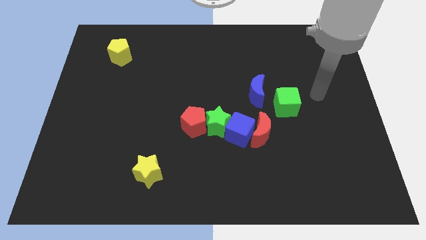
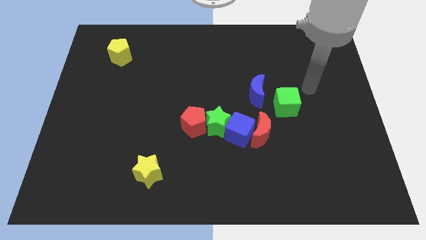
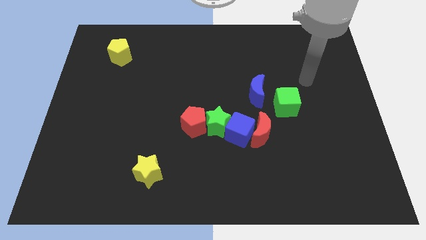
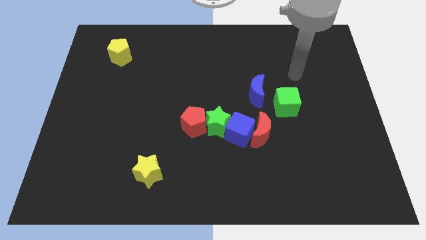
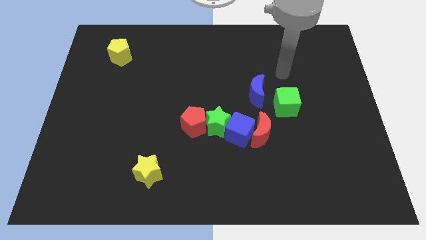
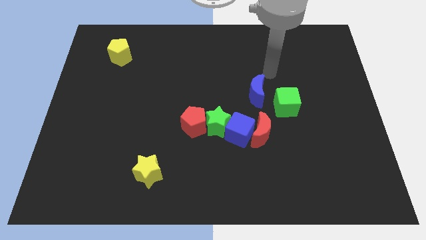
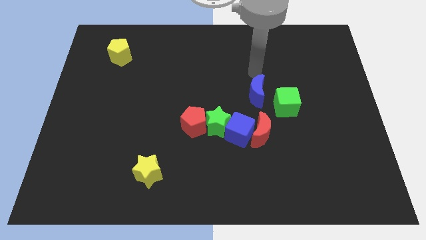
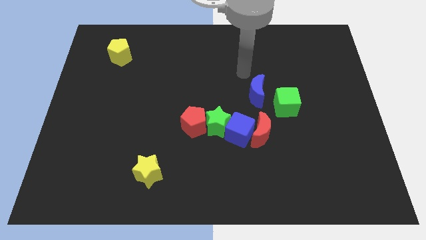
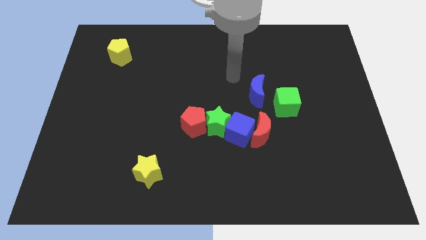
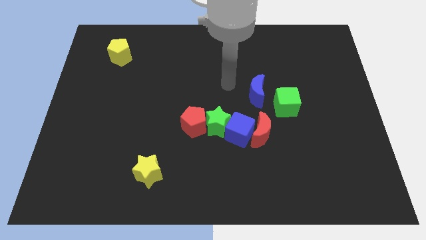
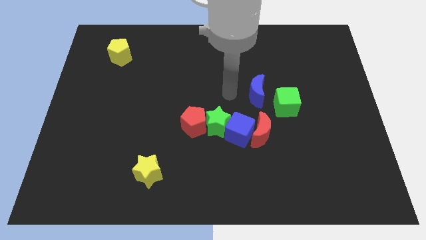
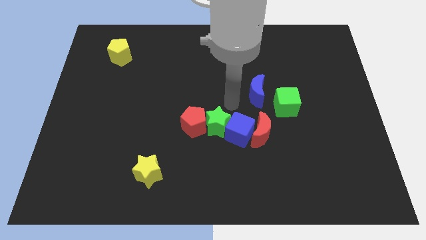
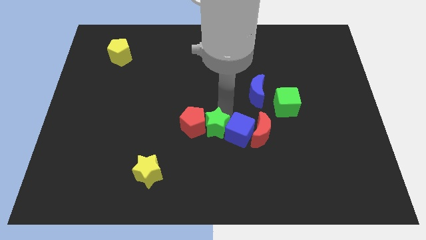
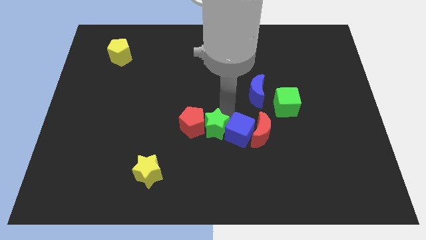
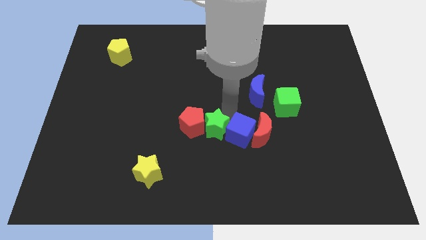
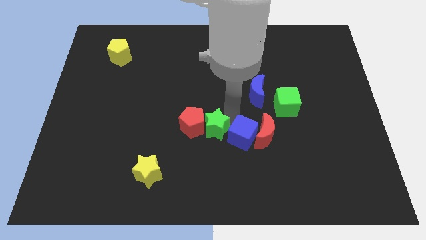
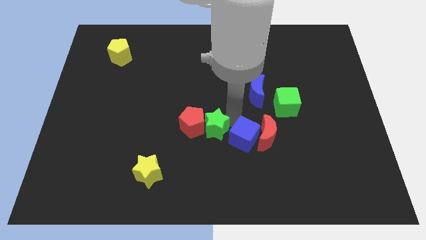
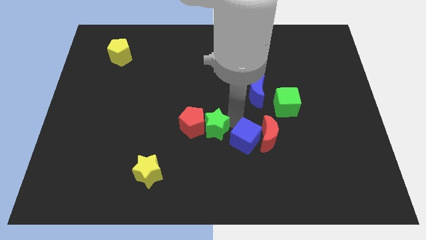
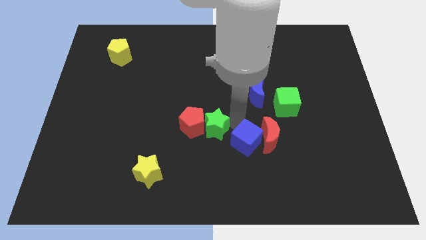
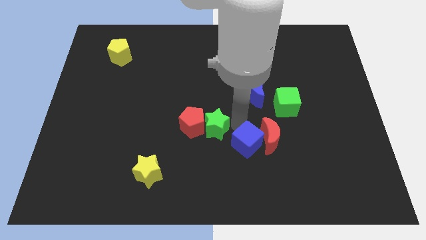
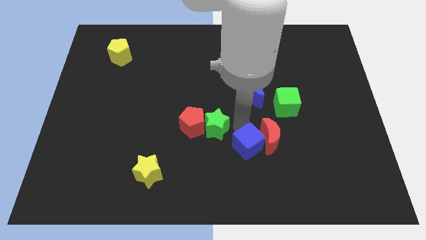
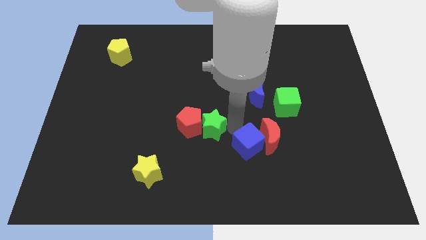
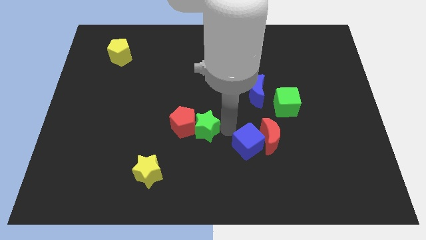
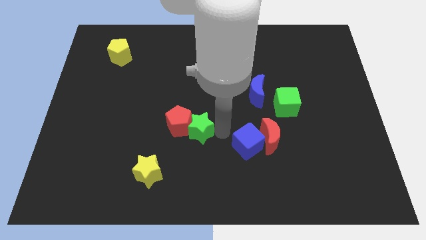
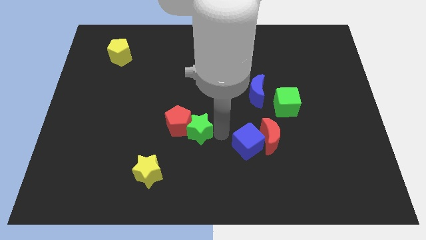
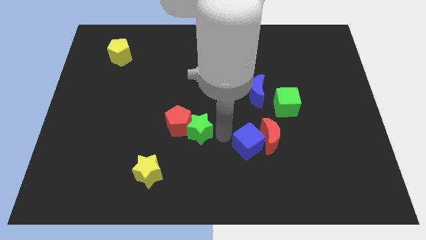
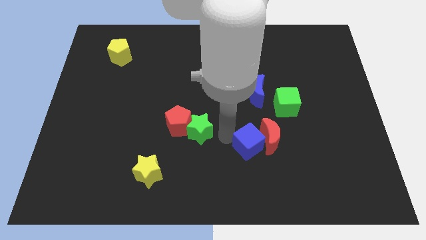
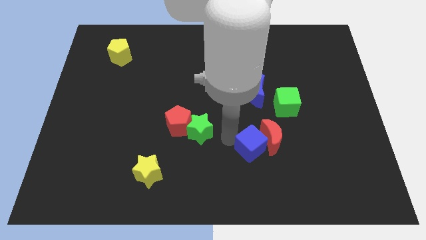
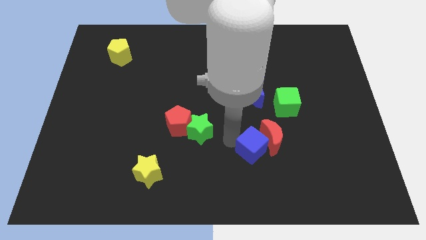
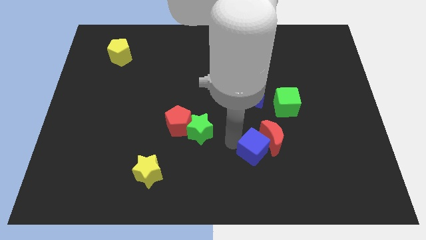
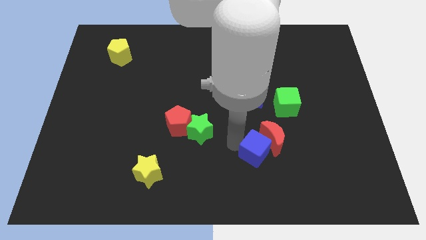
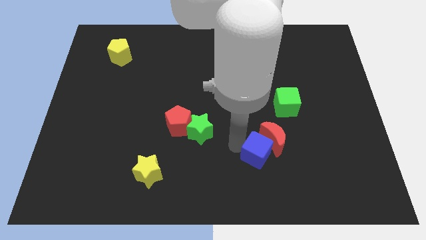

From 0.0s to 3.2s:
pull the blue cube apart from the group of blocks

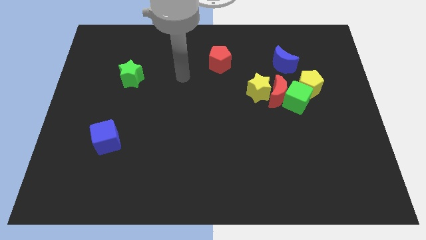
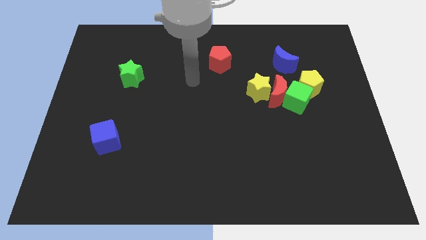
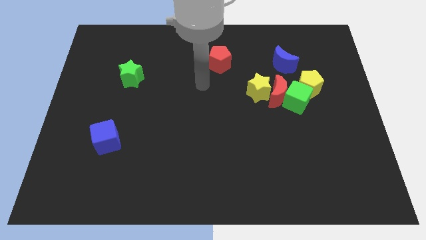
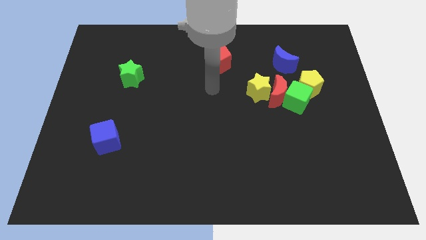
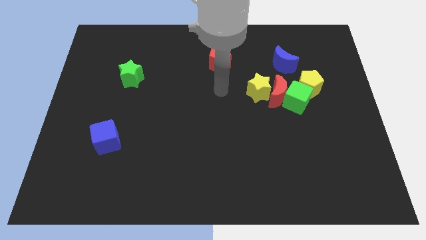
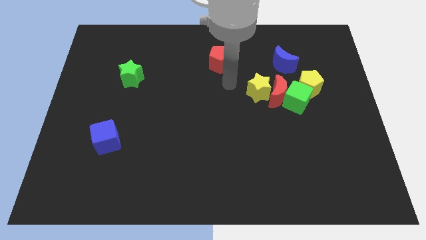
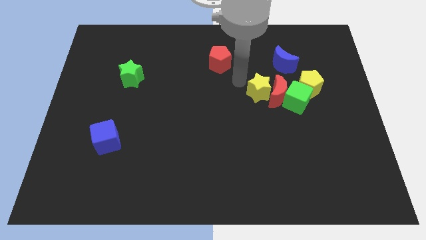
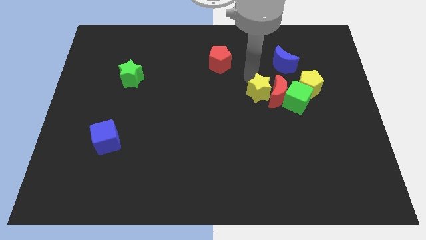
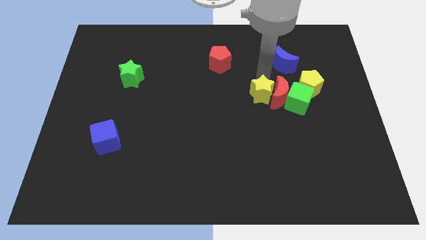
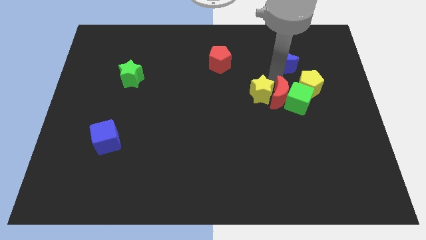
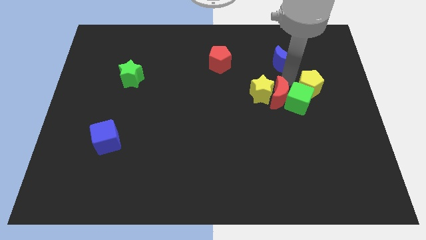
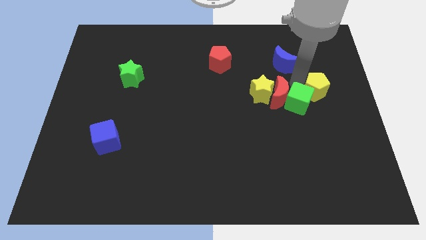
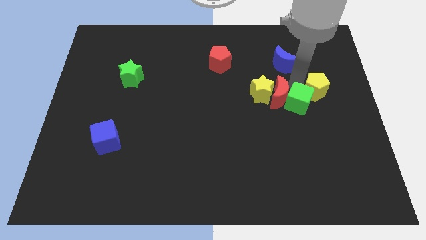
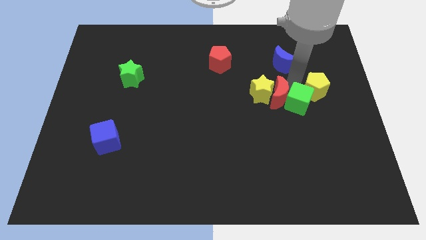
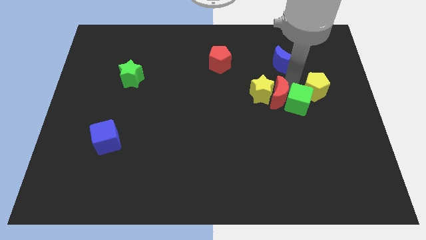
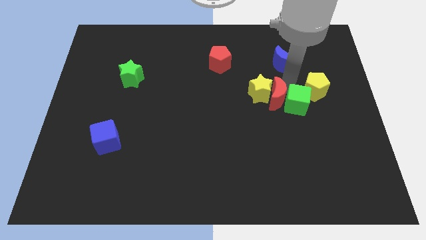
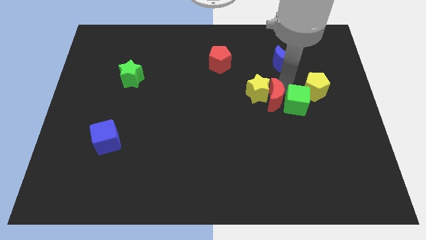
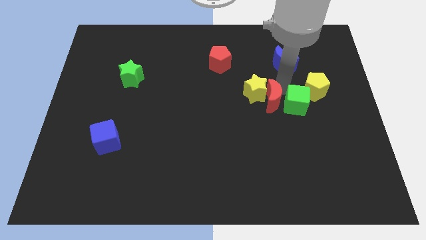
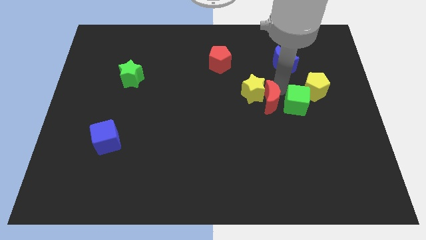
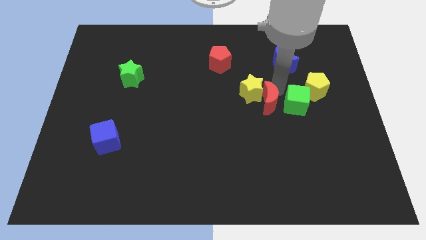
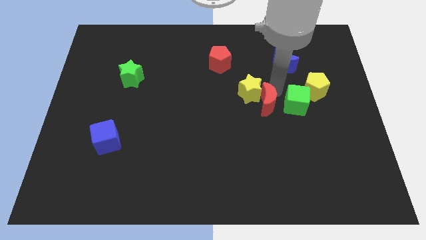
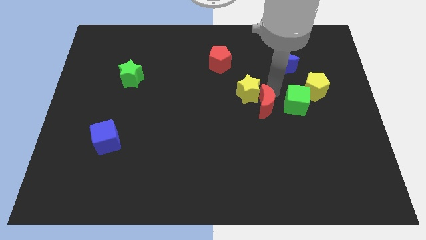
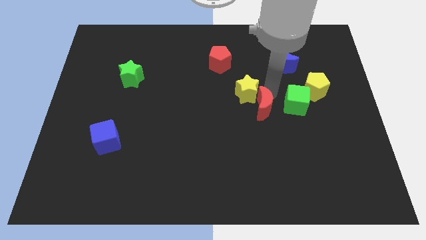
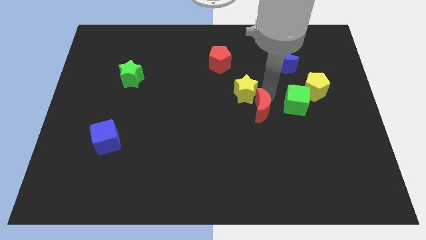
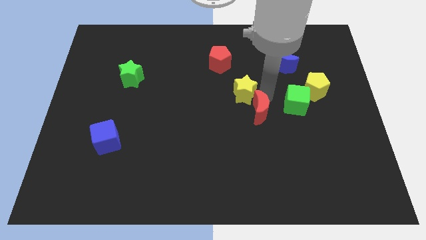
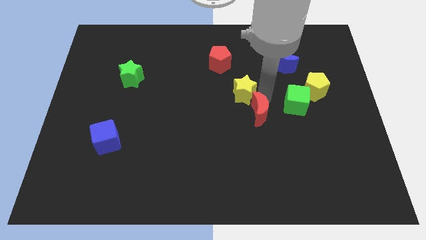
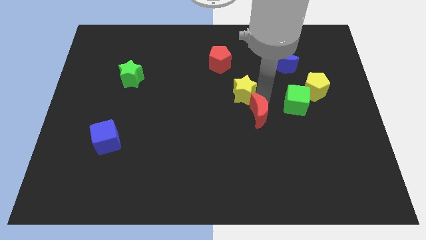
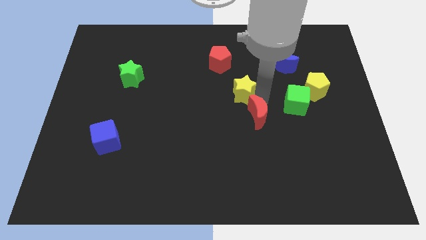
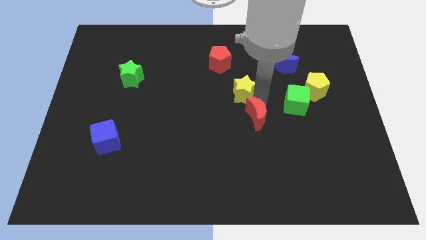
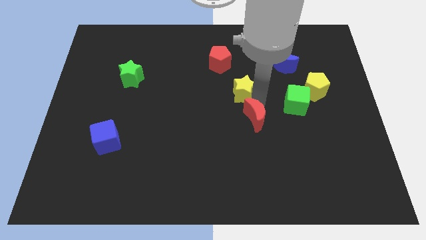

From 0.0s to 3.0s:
separate the red moon from the green cube, yellow star, and yellow pentagon

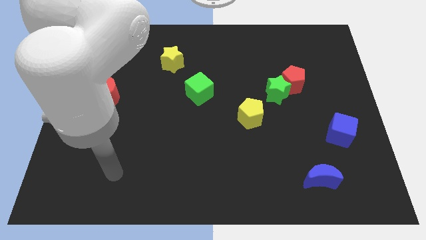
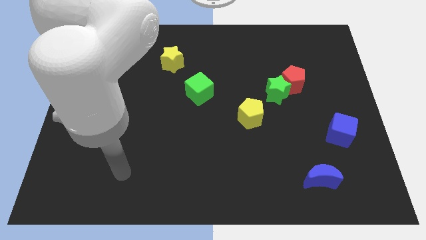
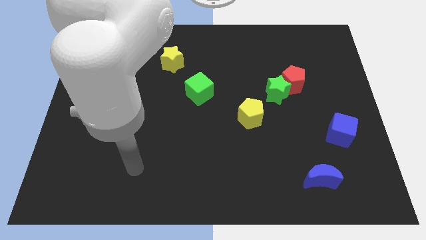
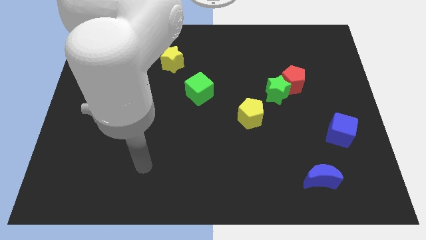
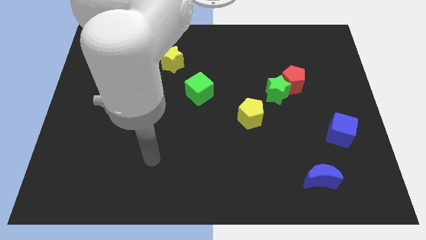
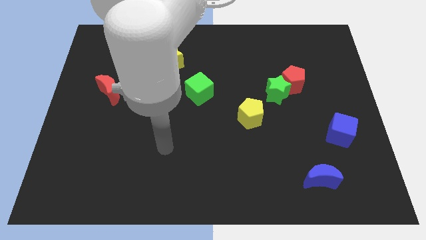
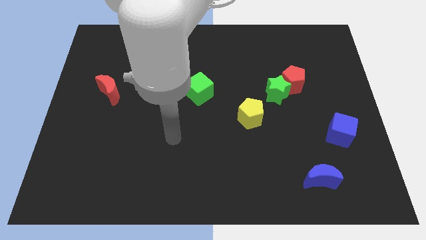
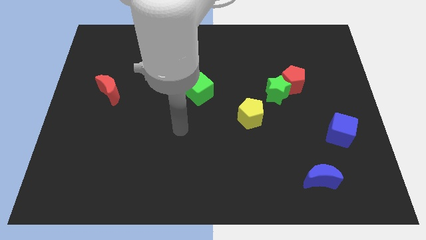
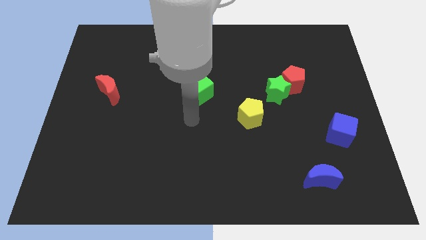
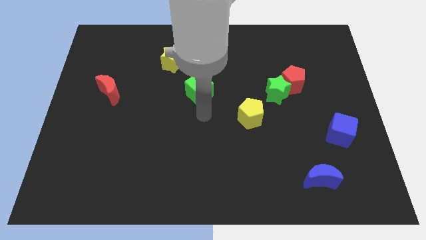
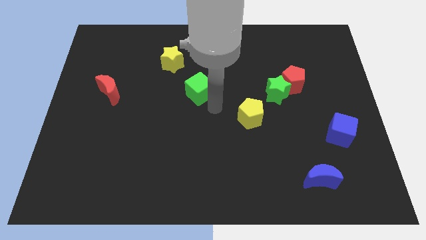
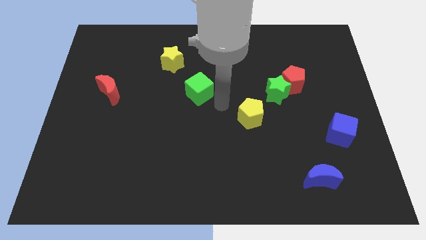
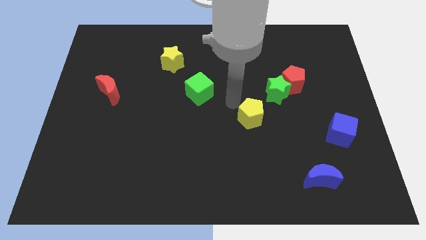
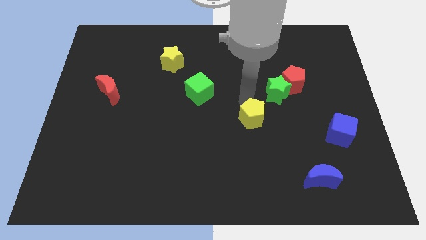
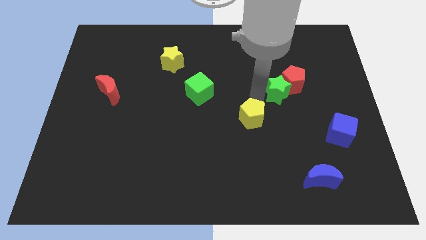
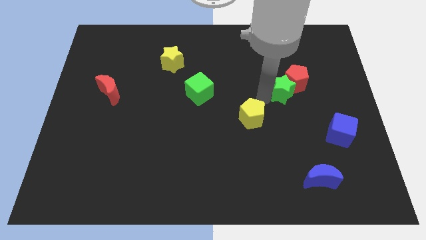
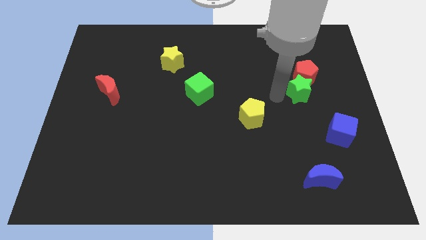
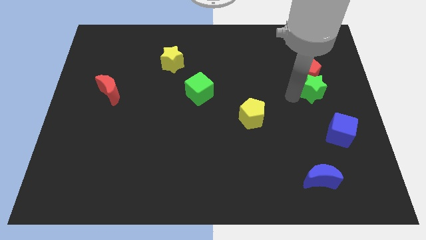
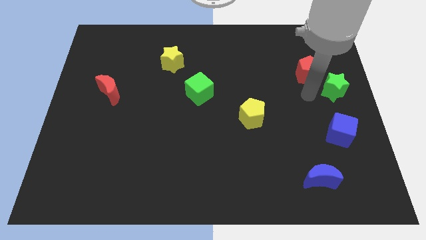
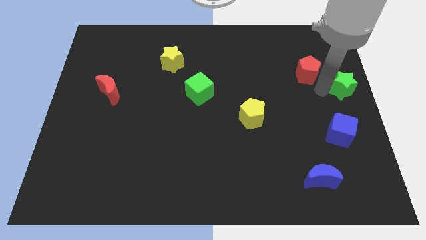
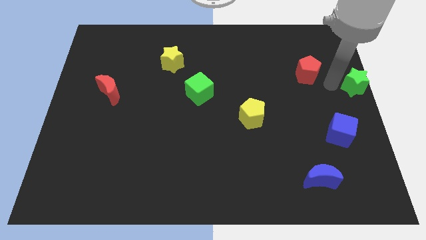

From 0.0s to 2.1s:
move the red pentagon away from the green star

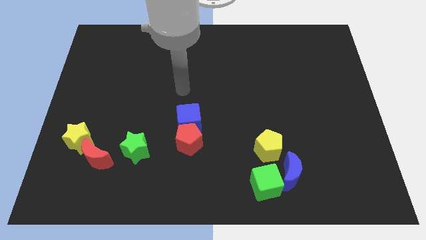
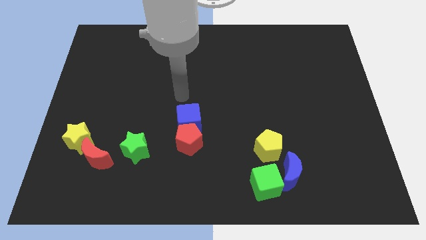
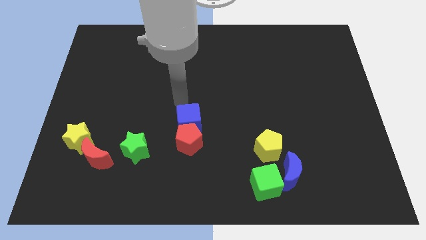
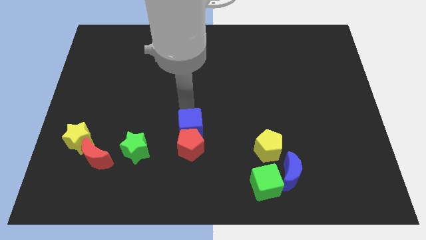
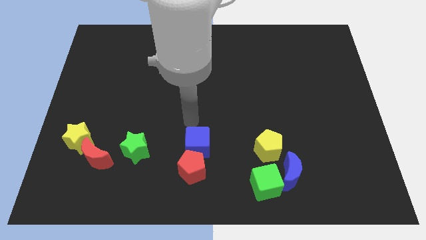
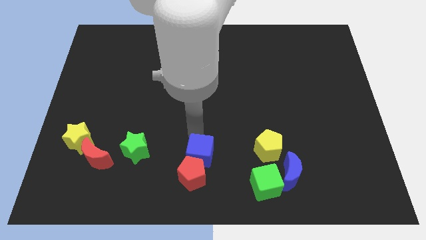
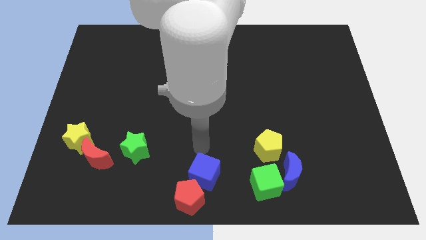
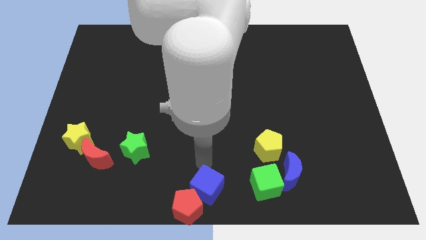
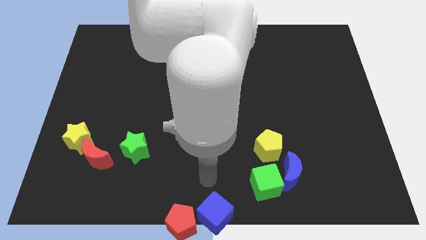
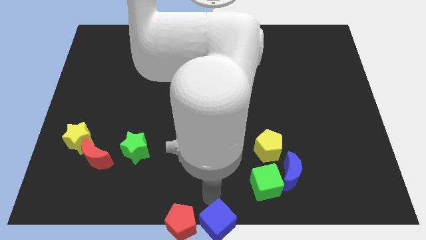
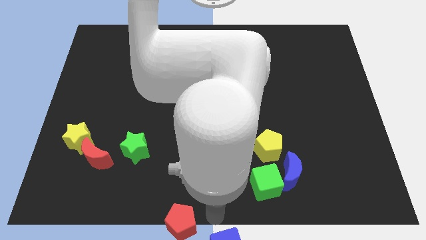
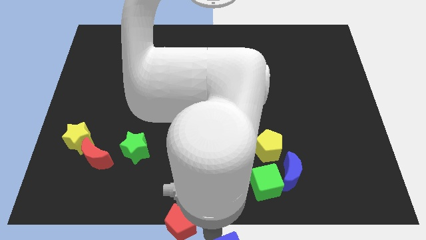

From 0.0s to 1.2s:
pull the red pentagon apart from the blue cube
